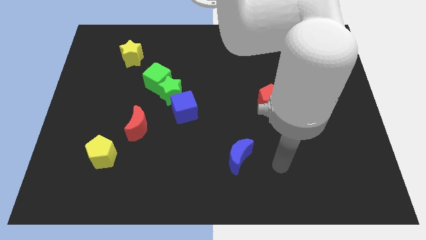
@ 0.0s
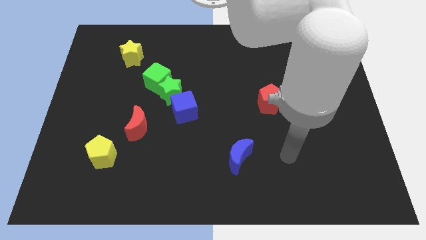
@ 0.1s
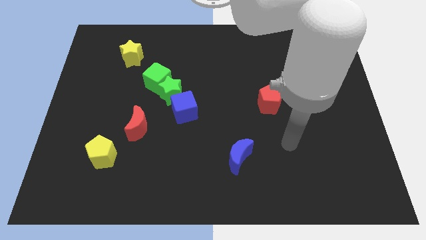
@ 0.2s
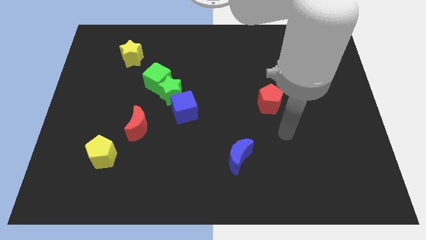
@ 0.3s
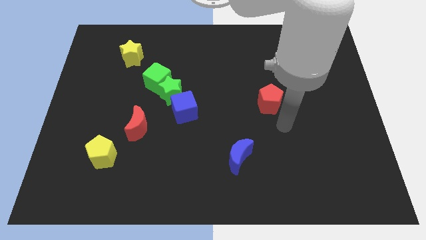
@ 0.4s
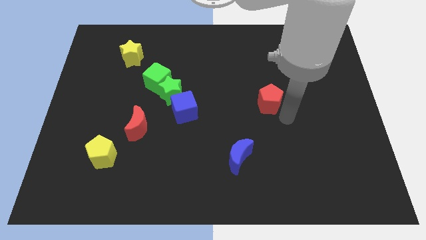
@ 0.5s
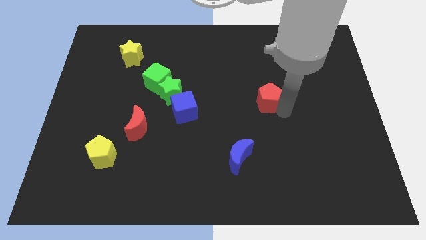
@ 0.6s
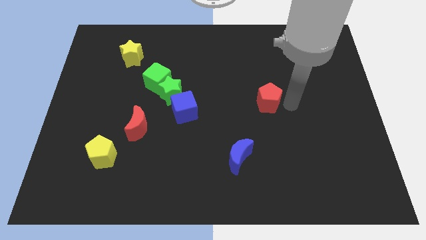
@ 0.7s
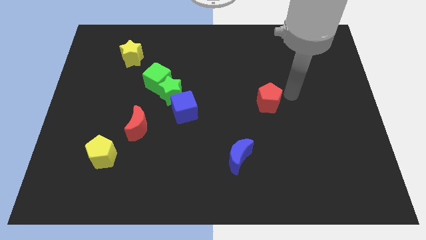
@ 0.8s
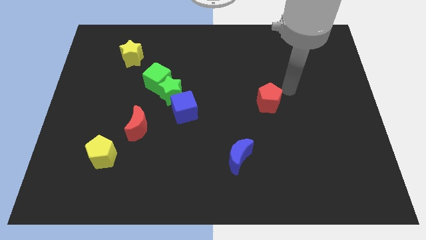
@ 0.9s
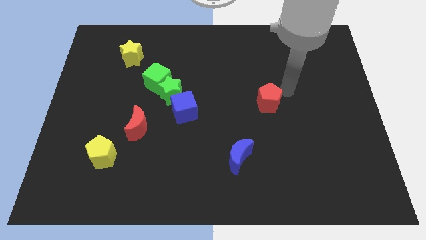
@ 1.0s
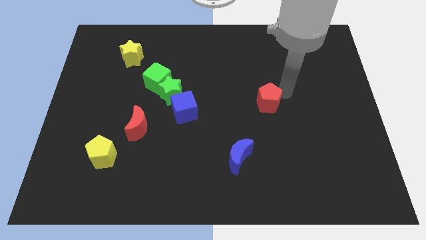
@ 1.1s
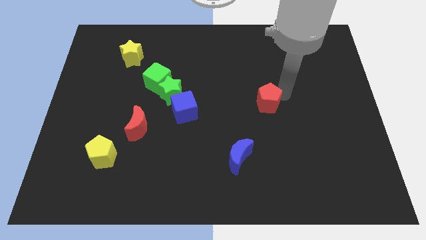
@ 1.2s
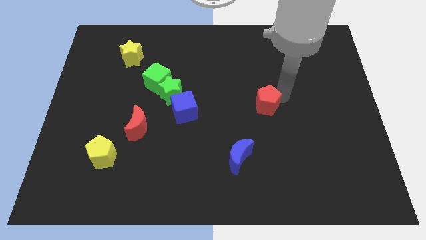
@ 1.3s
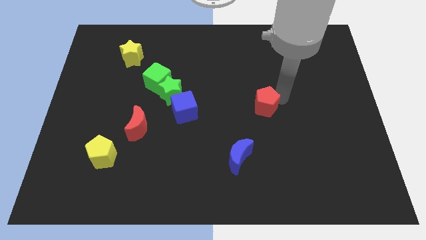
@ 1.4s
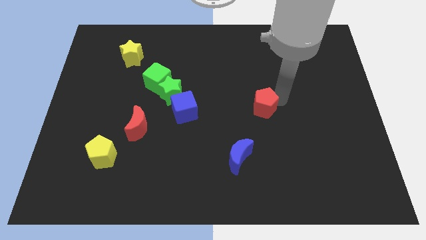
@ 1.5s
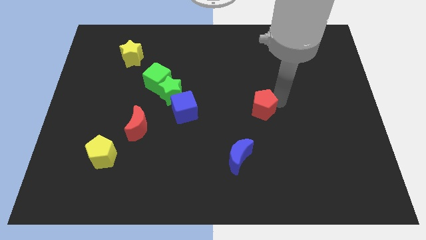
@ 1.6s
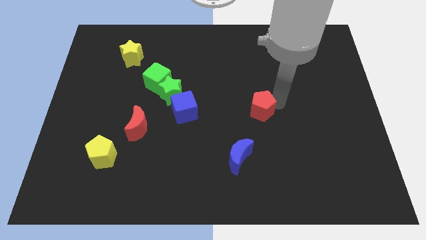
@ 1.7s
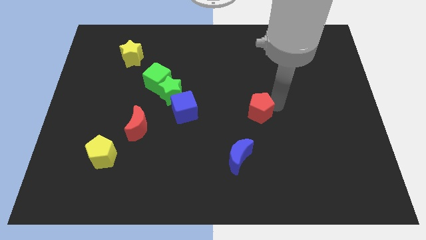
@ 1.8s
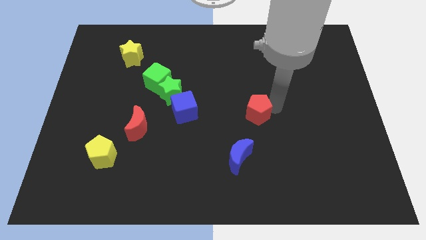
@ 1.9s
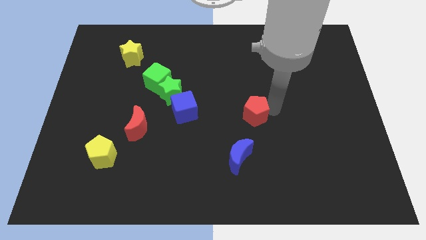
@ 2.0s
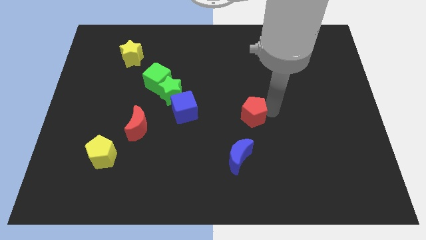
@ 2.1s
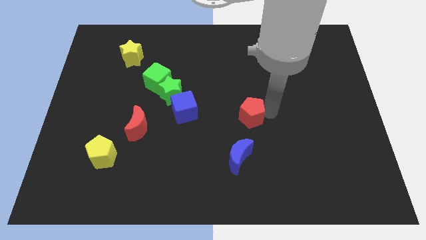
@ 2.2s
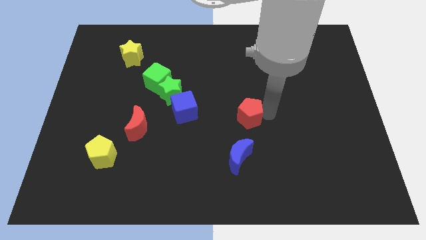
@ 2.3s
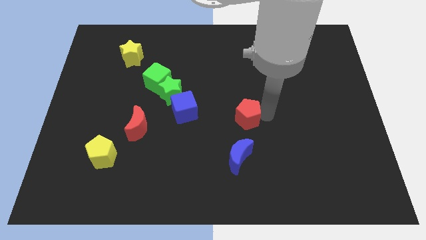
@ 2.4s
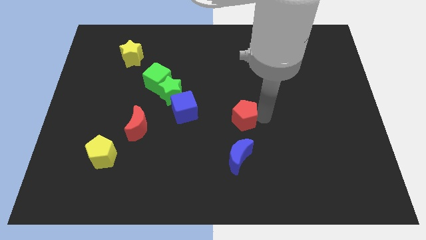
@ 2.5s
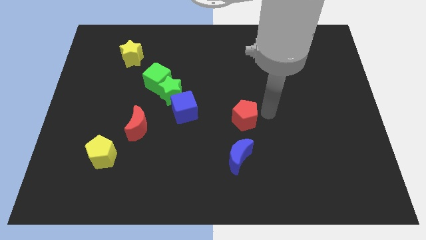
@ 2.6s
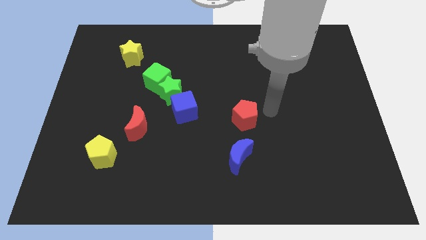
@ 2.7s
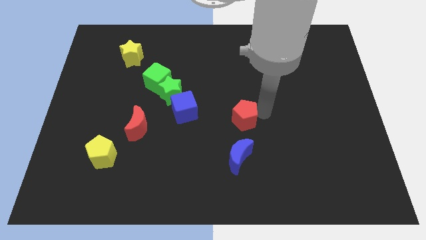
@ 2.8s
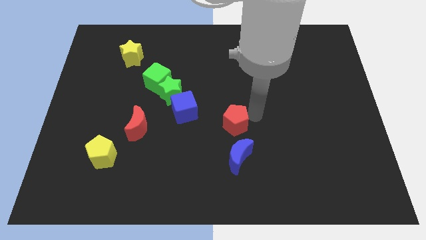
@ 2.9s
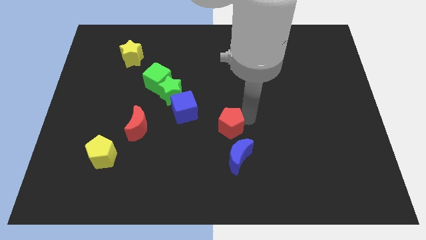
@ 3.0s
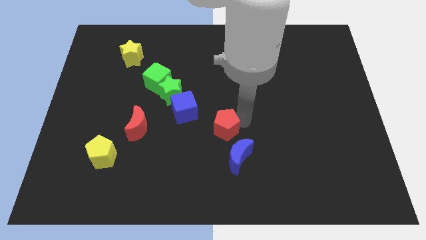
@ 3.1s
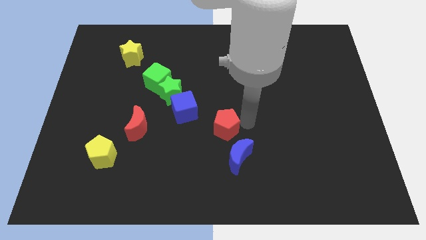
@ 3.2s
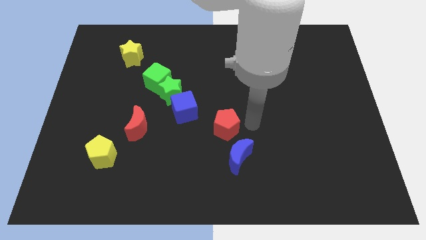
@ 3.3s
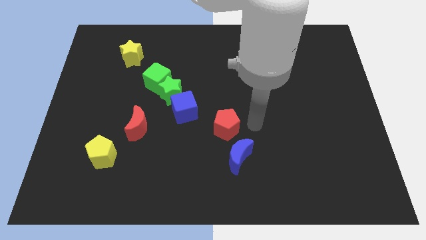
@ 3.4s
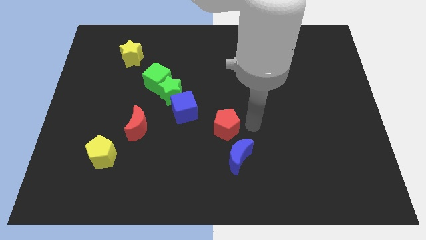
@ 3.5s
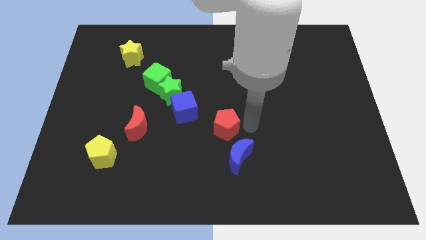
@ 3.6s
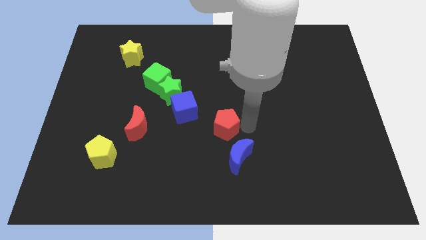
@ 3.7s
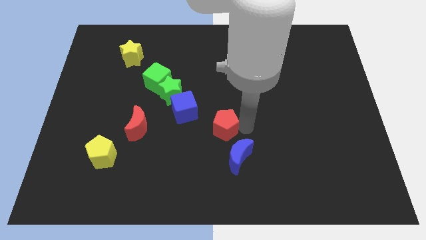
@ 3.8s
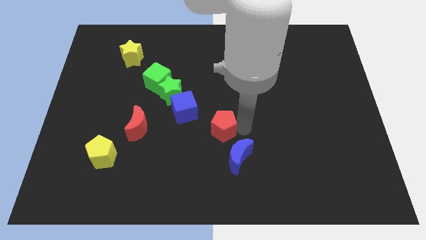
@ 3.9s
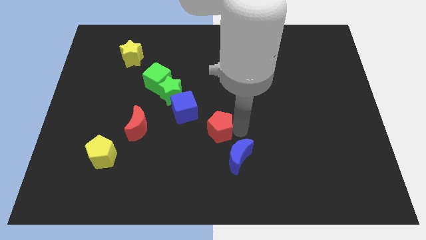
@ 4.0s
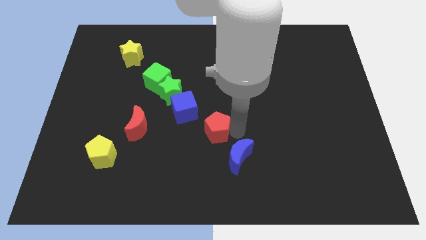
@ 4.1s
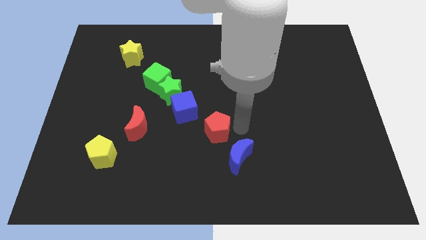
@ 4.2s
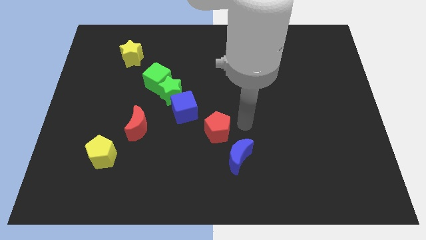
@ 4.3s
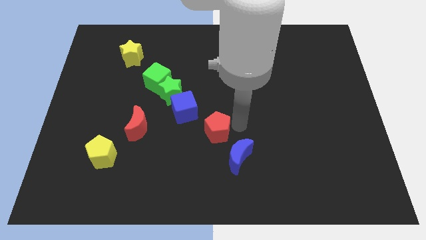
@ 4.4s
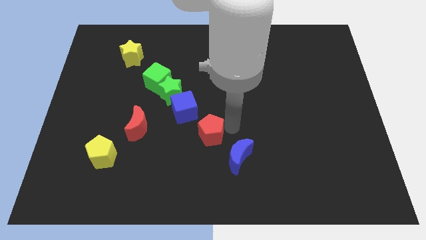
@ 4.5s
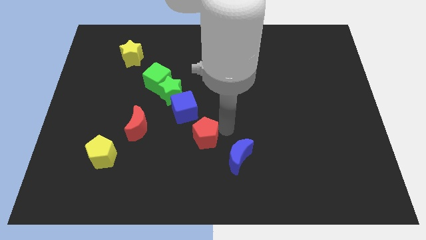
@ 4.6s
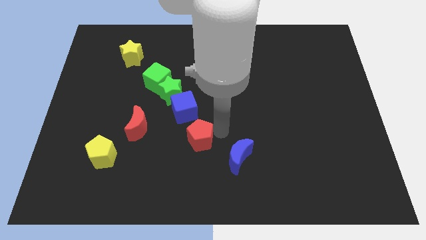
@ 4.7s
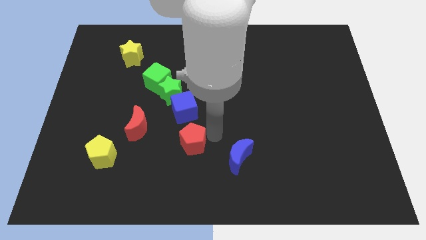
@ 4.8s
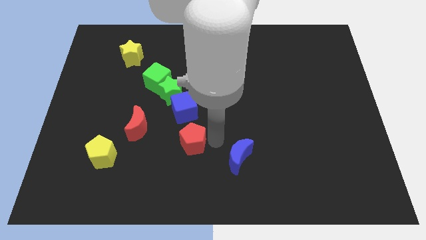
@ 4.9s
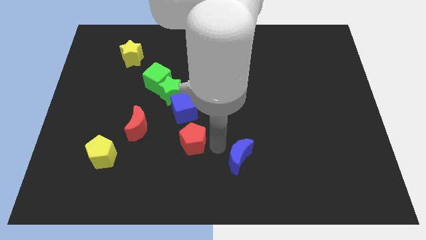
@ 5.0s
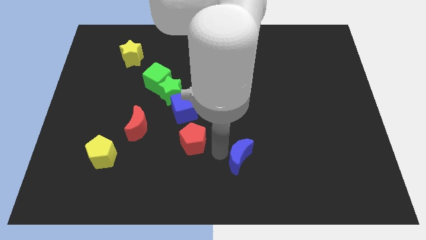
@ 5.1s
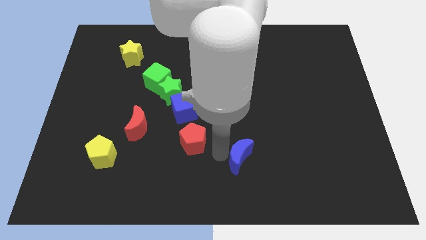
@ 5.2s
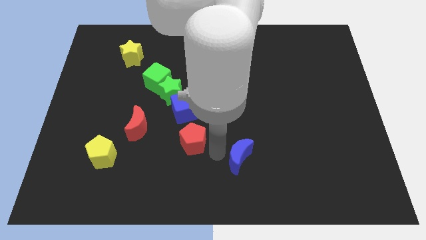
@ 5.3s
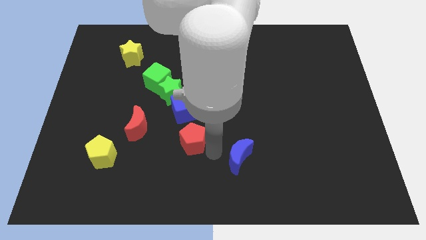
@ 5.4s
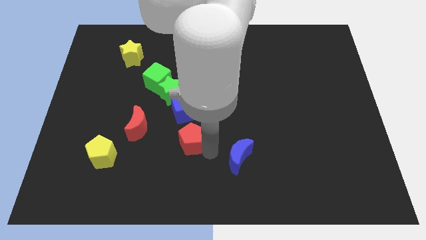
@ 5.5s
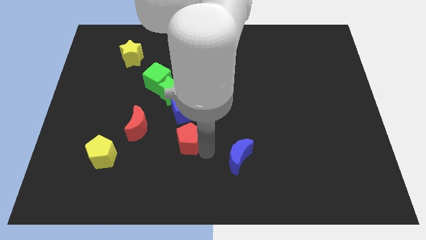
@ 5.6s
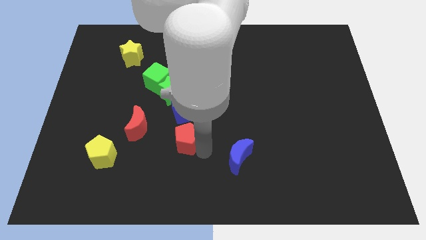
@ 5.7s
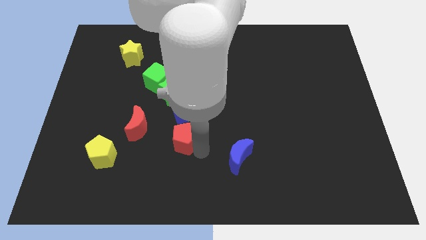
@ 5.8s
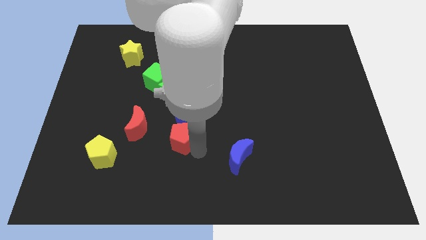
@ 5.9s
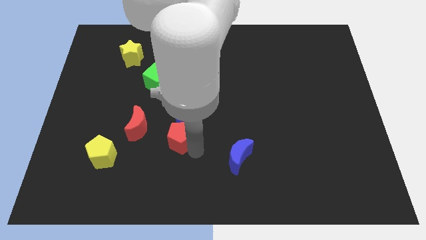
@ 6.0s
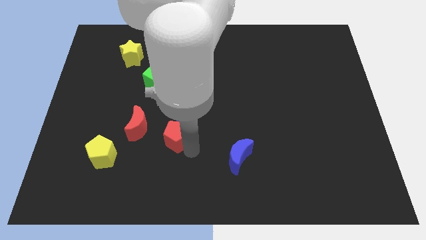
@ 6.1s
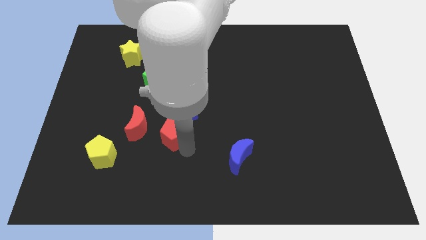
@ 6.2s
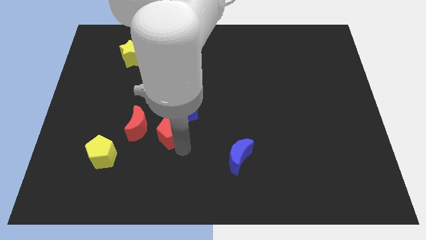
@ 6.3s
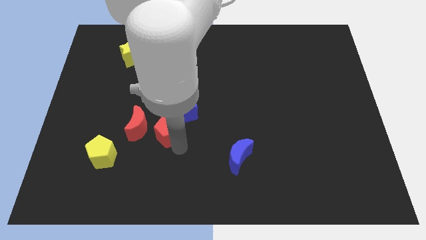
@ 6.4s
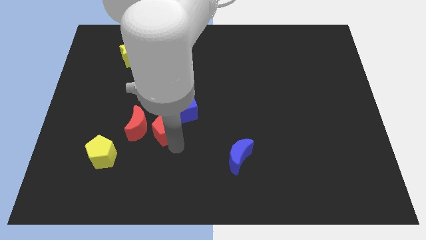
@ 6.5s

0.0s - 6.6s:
slide the red pentagon to the bottom of the green cube

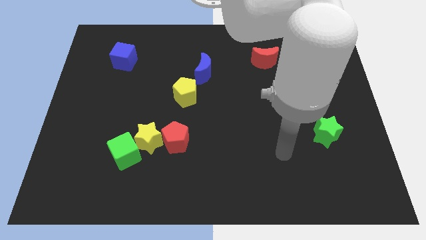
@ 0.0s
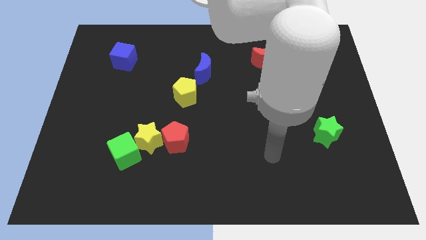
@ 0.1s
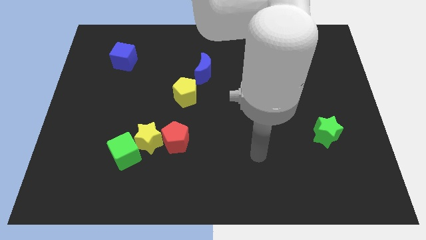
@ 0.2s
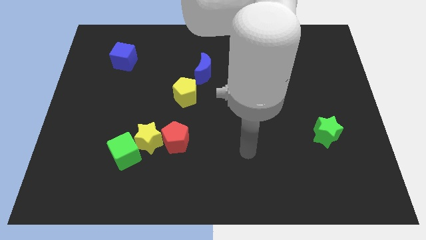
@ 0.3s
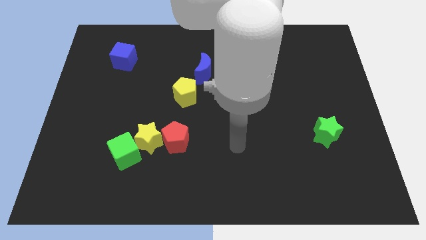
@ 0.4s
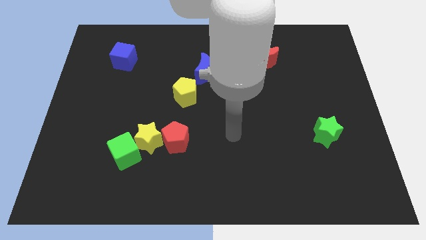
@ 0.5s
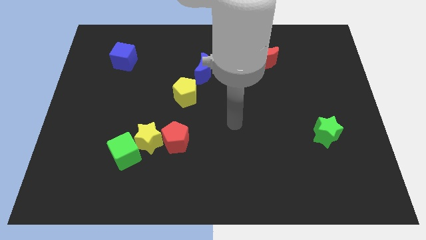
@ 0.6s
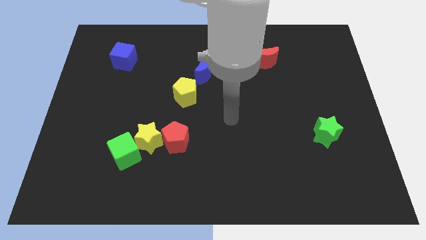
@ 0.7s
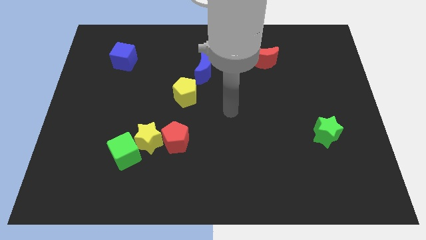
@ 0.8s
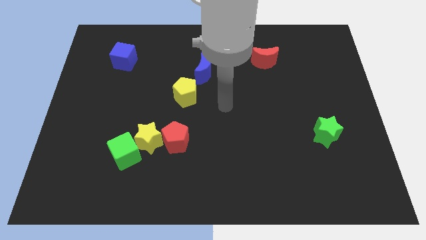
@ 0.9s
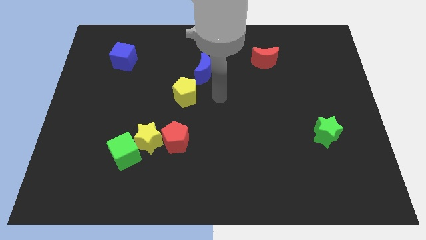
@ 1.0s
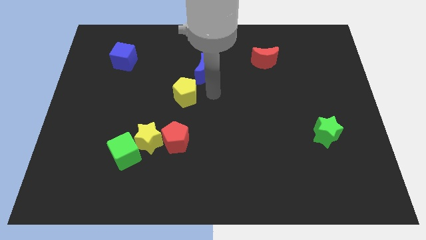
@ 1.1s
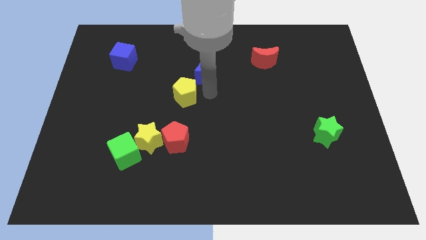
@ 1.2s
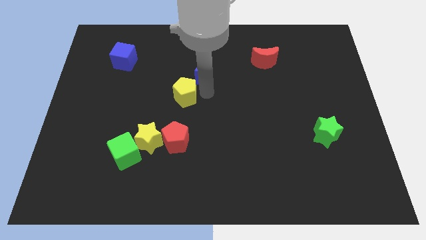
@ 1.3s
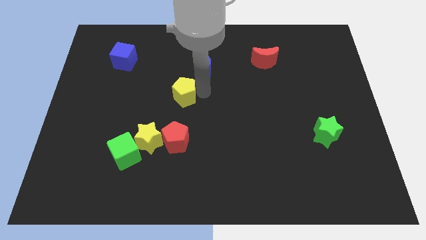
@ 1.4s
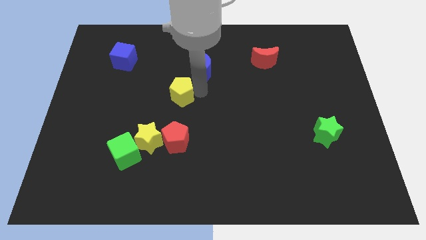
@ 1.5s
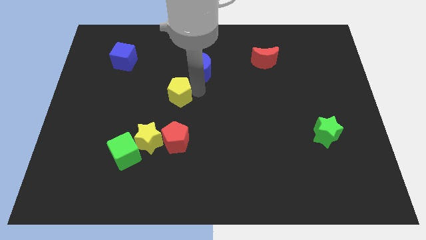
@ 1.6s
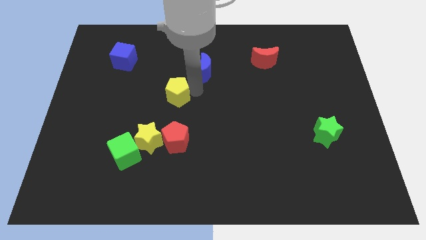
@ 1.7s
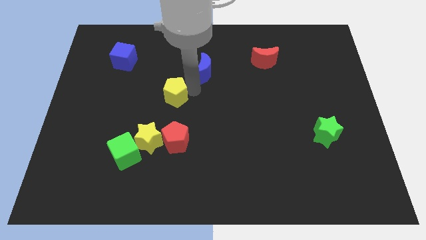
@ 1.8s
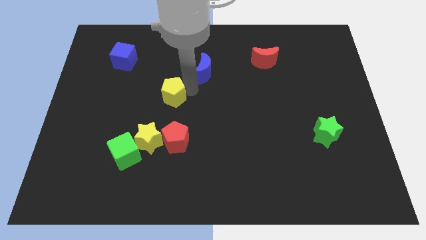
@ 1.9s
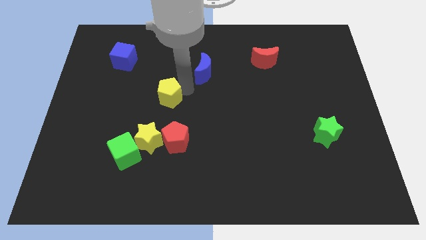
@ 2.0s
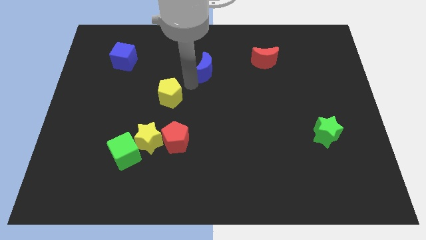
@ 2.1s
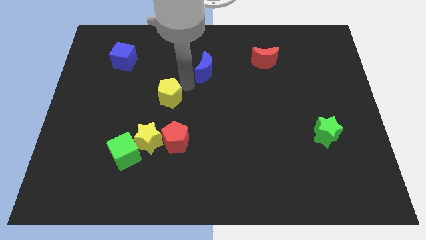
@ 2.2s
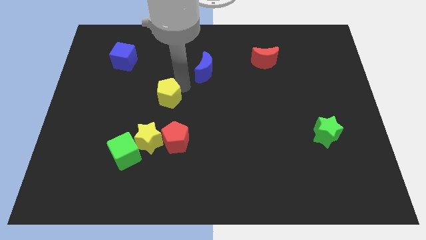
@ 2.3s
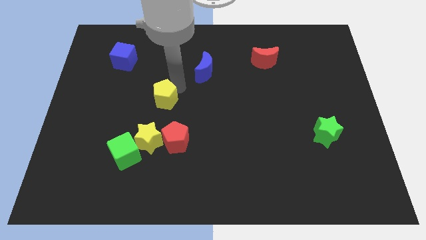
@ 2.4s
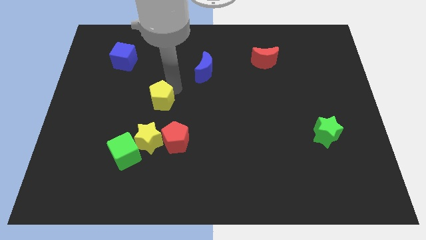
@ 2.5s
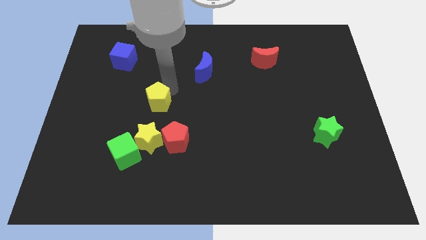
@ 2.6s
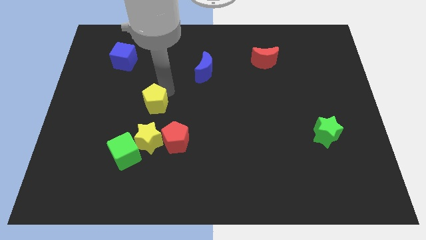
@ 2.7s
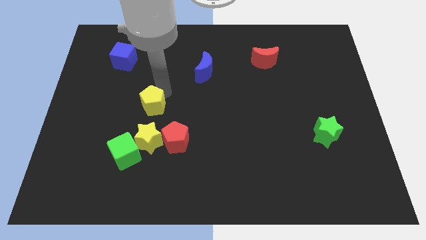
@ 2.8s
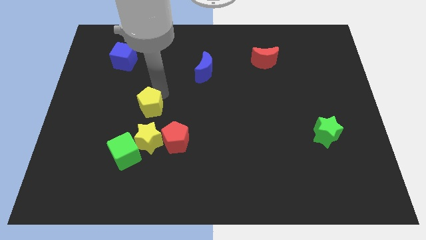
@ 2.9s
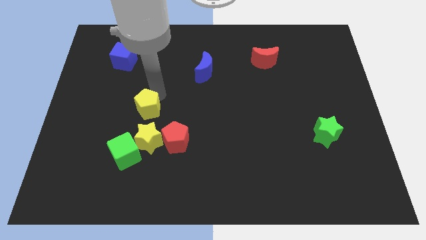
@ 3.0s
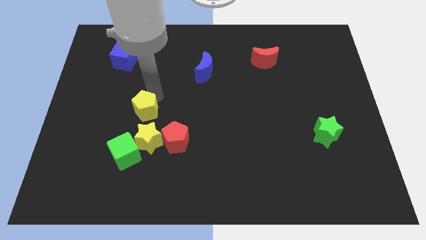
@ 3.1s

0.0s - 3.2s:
put the yellow pentagon to the top left side of the yellow star
